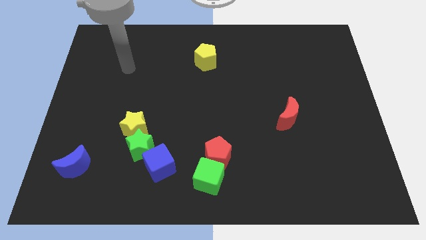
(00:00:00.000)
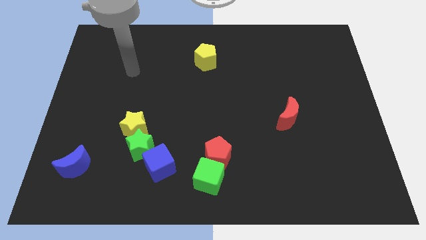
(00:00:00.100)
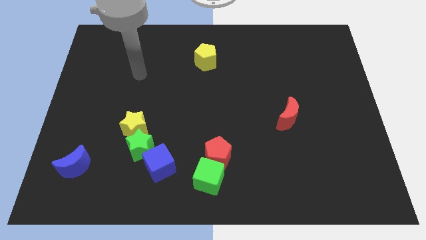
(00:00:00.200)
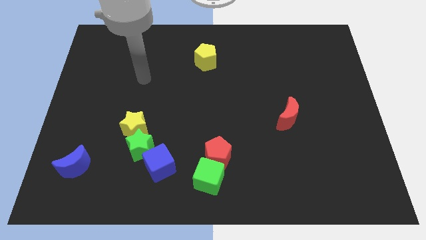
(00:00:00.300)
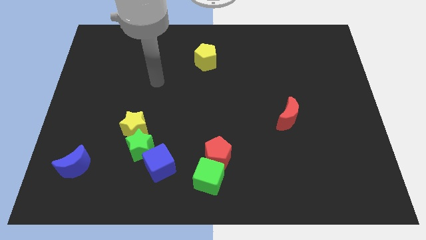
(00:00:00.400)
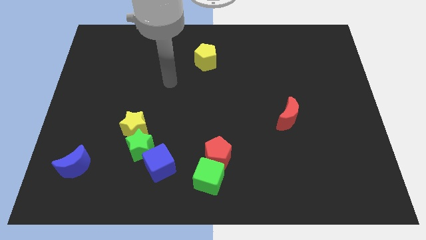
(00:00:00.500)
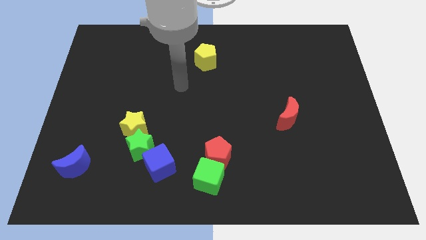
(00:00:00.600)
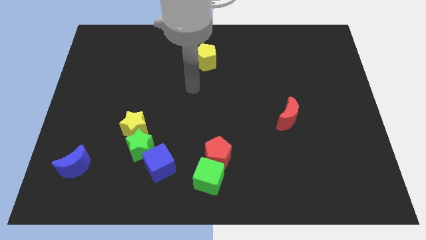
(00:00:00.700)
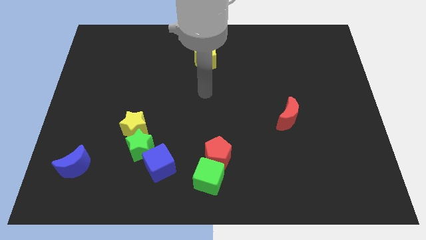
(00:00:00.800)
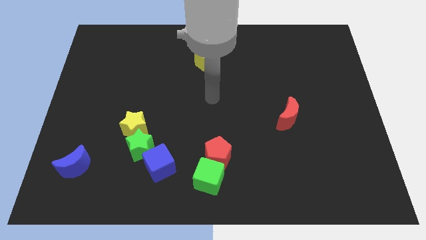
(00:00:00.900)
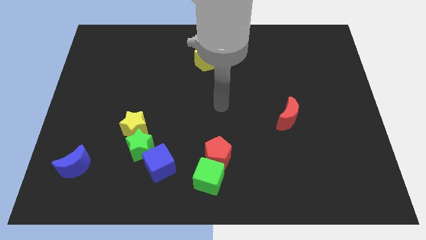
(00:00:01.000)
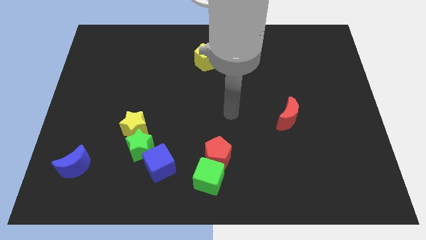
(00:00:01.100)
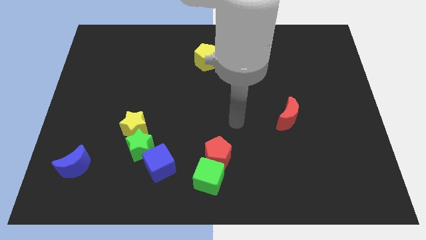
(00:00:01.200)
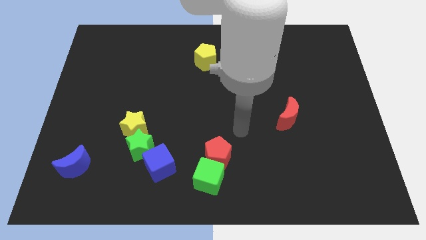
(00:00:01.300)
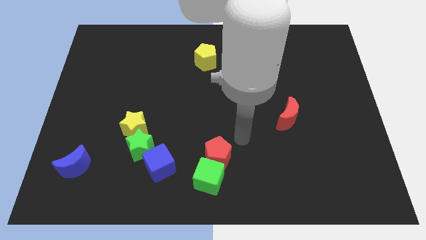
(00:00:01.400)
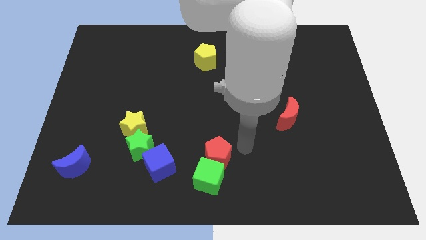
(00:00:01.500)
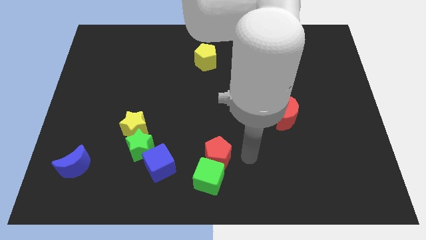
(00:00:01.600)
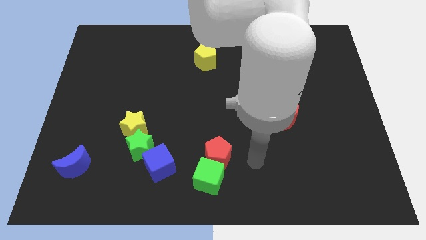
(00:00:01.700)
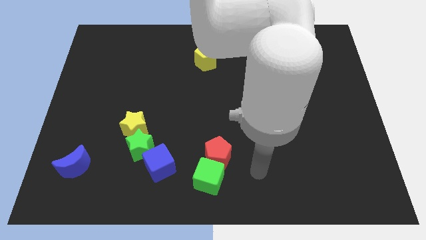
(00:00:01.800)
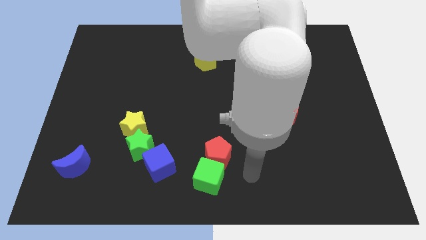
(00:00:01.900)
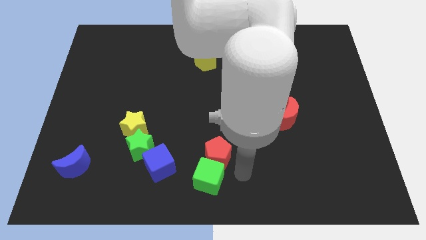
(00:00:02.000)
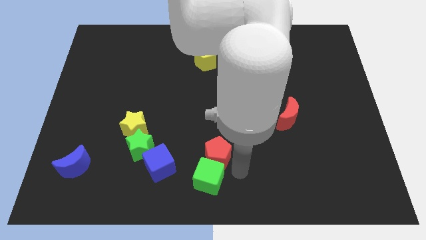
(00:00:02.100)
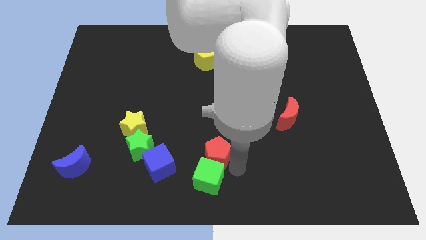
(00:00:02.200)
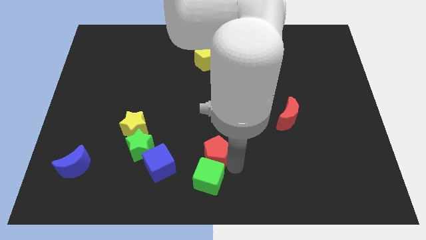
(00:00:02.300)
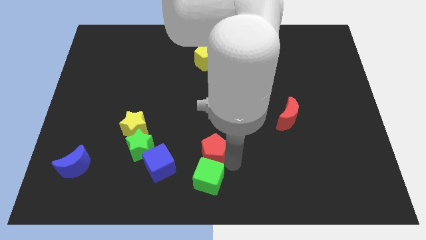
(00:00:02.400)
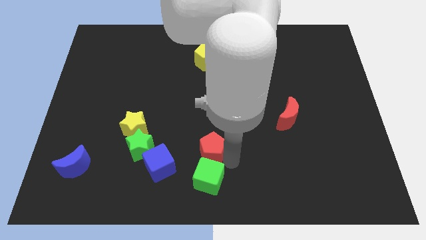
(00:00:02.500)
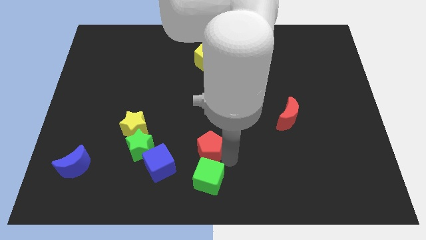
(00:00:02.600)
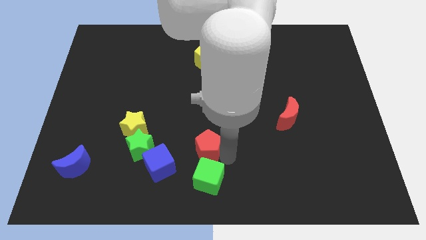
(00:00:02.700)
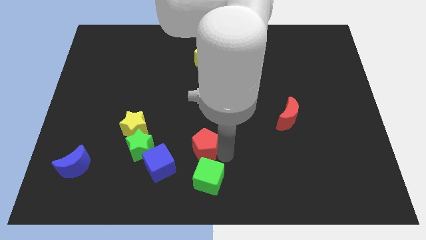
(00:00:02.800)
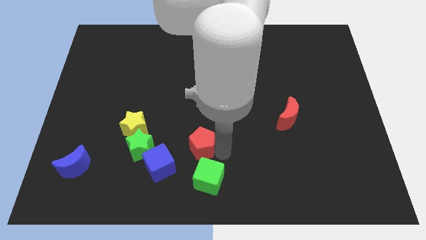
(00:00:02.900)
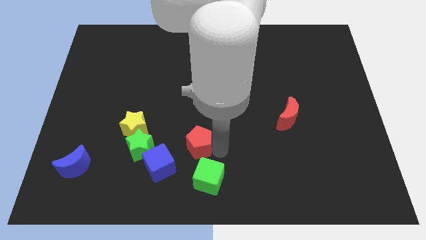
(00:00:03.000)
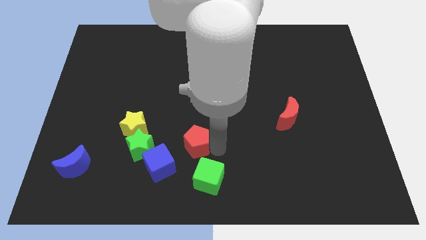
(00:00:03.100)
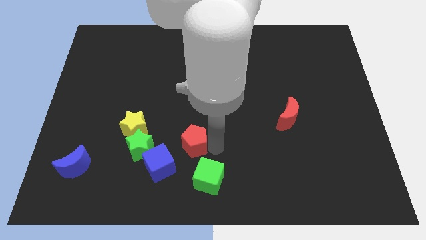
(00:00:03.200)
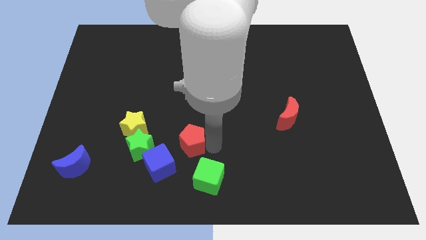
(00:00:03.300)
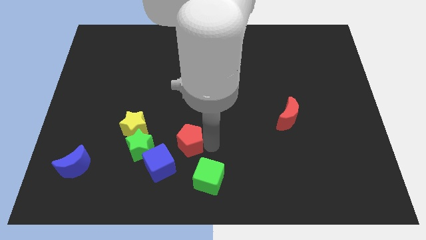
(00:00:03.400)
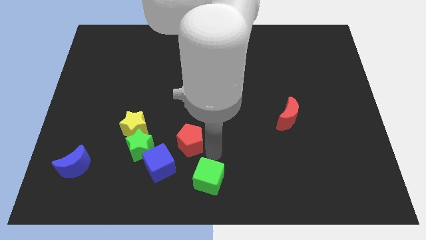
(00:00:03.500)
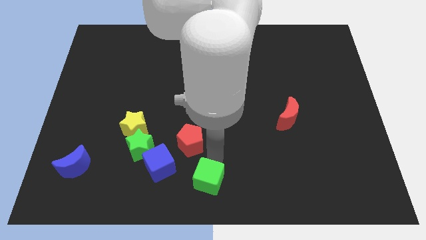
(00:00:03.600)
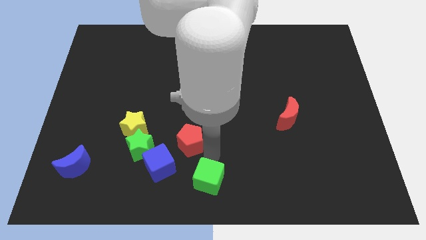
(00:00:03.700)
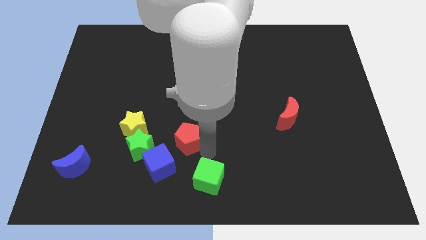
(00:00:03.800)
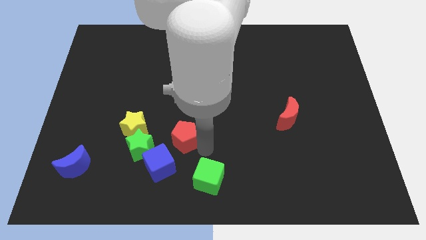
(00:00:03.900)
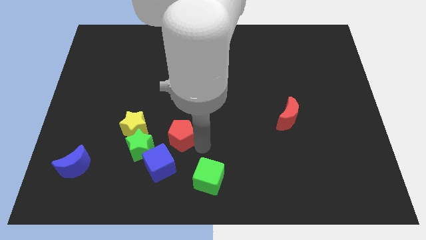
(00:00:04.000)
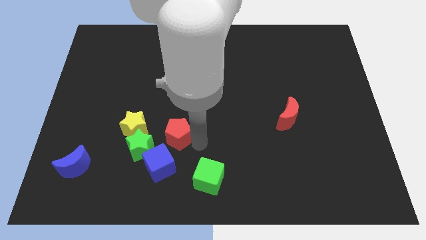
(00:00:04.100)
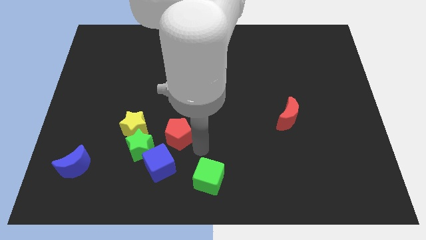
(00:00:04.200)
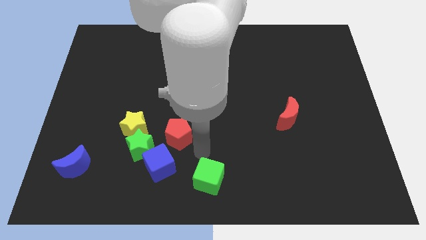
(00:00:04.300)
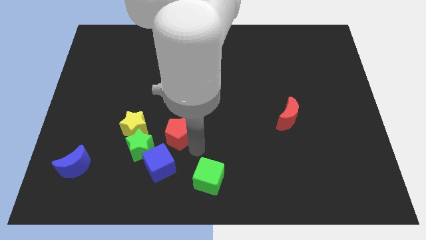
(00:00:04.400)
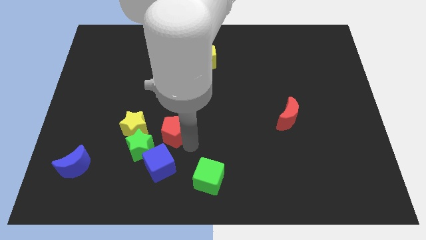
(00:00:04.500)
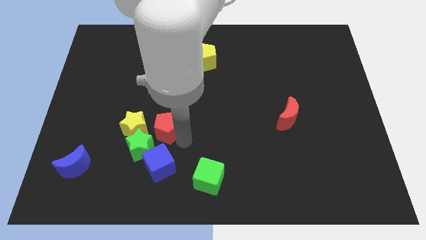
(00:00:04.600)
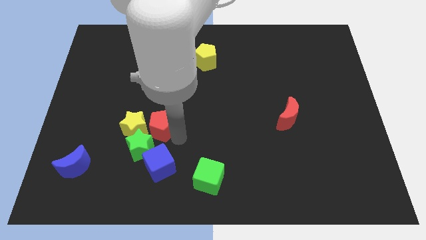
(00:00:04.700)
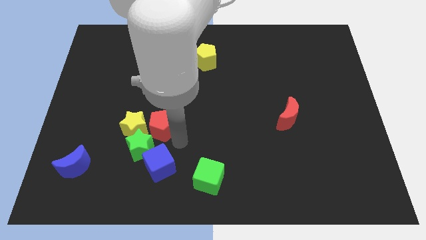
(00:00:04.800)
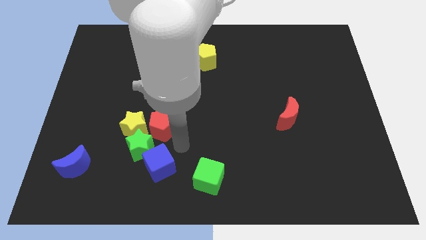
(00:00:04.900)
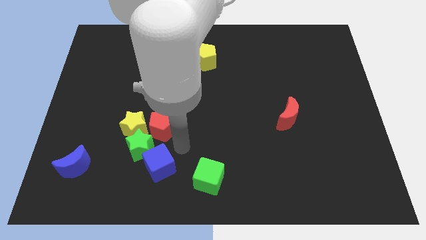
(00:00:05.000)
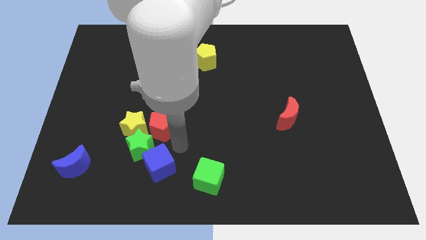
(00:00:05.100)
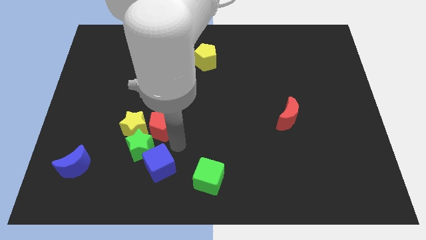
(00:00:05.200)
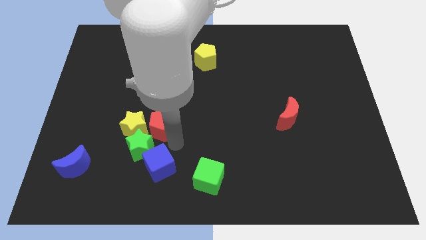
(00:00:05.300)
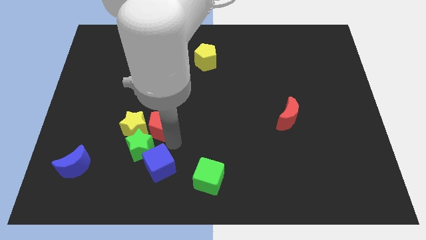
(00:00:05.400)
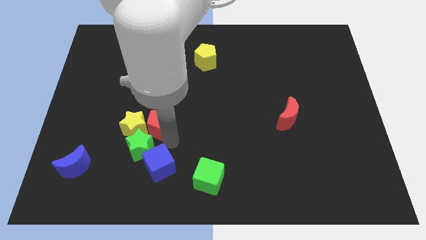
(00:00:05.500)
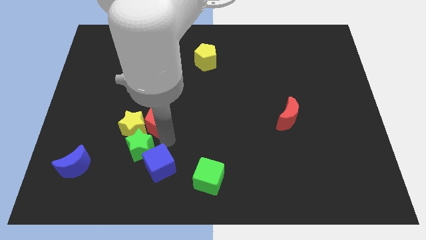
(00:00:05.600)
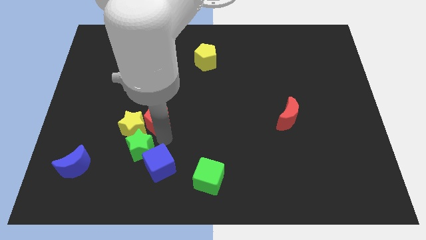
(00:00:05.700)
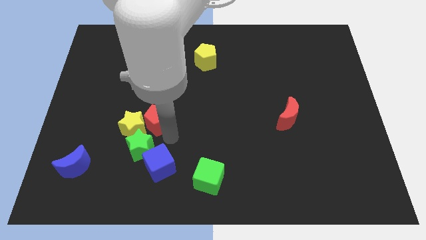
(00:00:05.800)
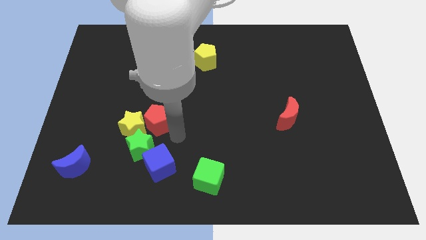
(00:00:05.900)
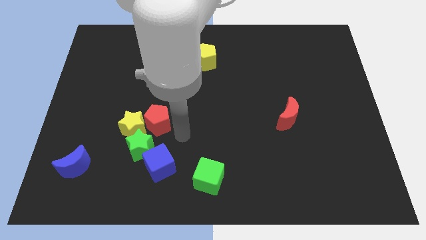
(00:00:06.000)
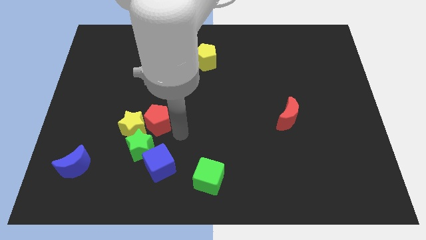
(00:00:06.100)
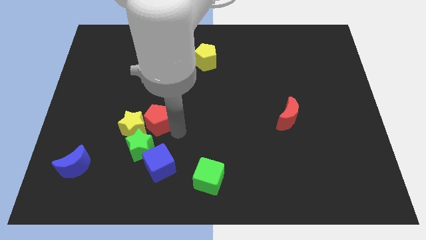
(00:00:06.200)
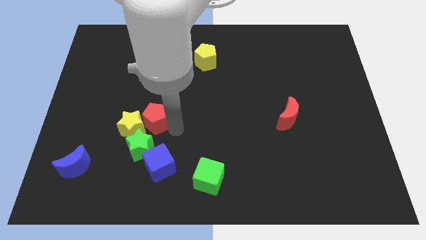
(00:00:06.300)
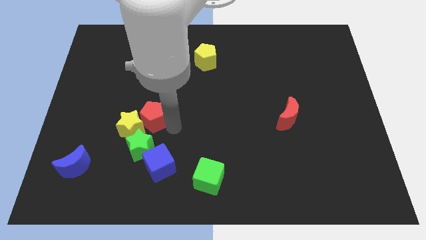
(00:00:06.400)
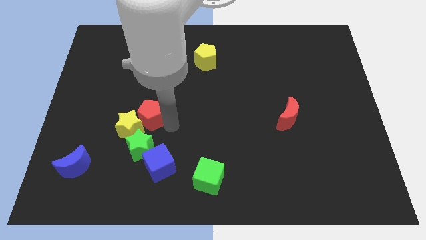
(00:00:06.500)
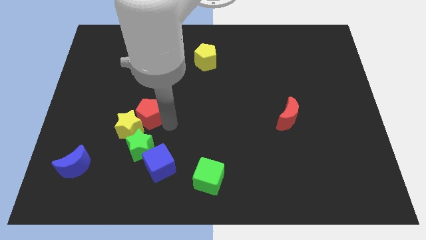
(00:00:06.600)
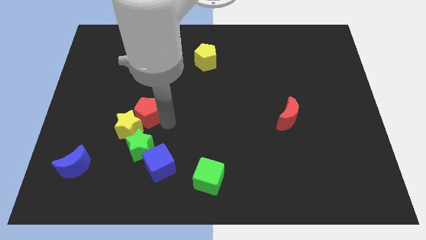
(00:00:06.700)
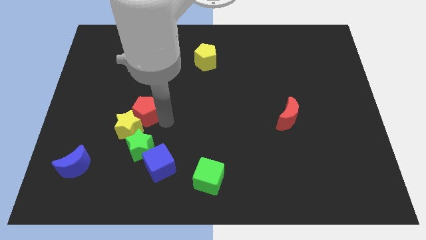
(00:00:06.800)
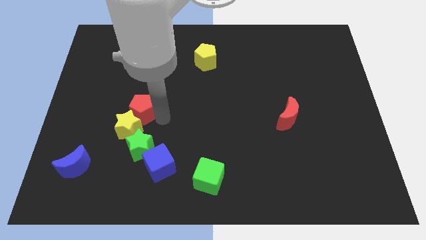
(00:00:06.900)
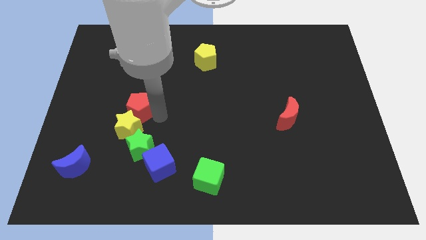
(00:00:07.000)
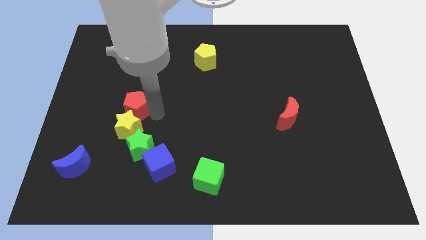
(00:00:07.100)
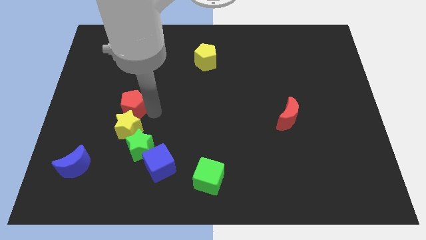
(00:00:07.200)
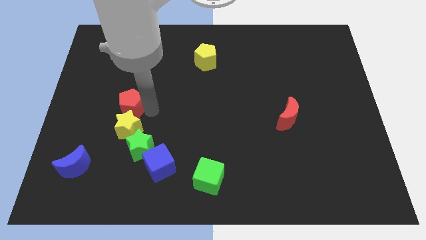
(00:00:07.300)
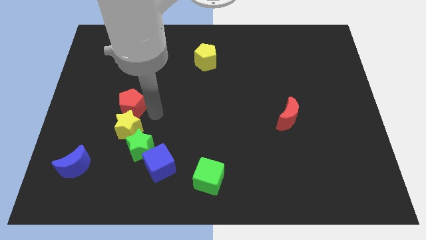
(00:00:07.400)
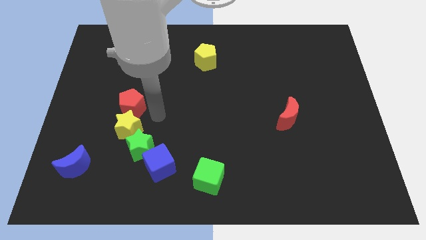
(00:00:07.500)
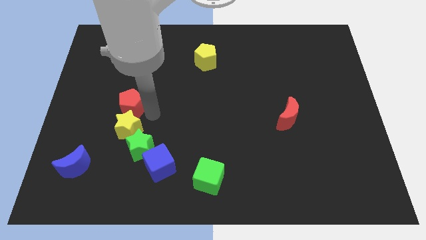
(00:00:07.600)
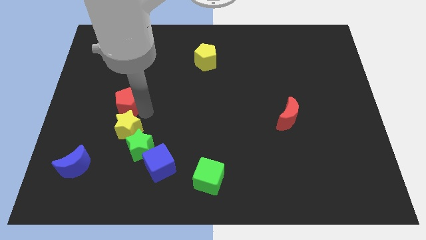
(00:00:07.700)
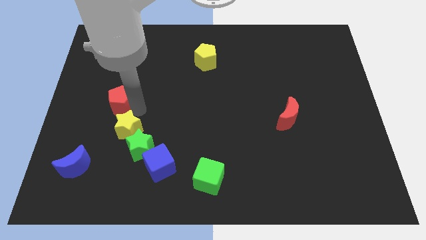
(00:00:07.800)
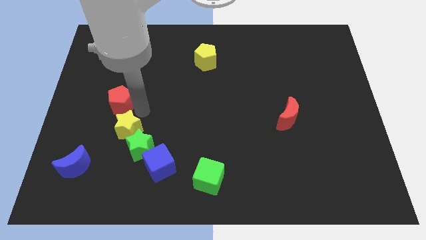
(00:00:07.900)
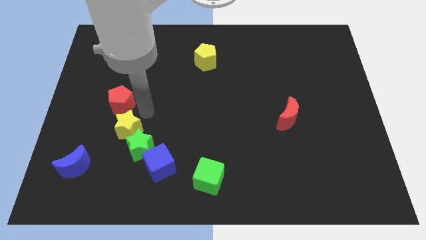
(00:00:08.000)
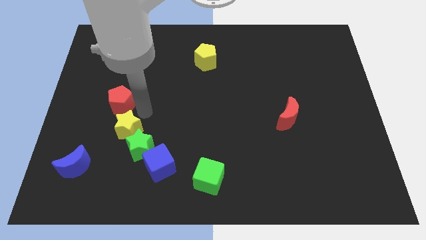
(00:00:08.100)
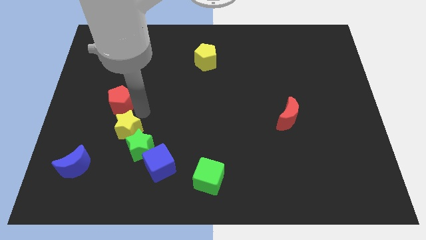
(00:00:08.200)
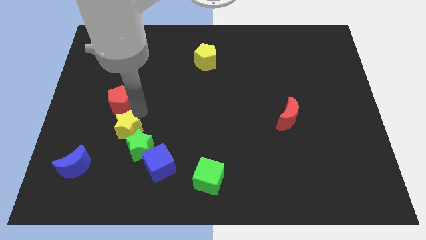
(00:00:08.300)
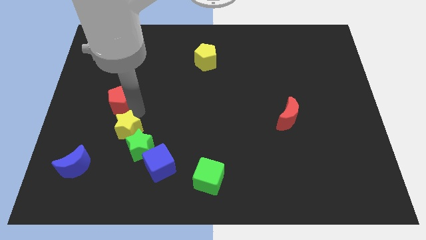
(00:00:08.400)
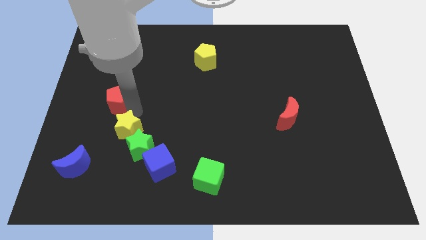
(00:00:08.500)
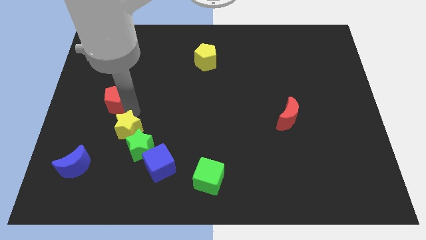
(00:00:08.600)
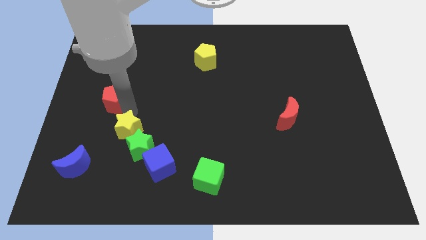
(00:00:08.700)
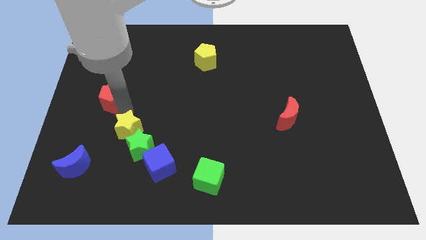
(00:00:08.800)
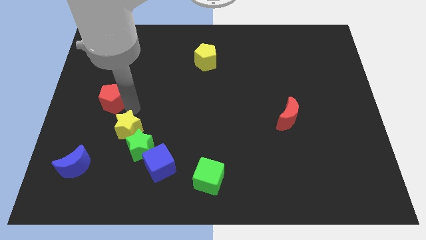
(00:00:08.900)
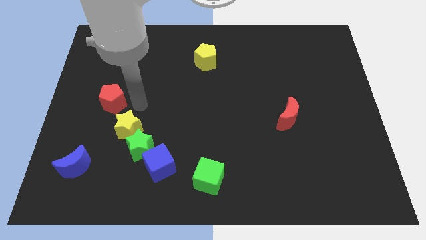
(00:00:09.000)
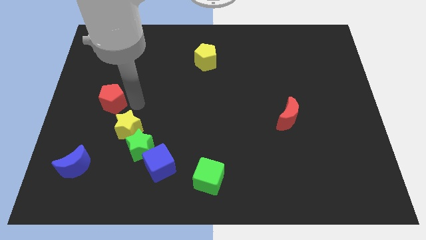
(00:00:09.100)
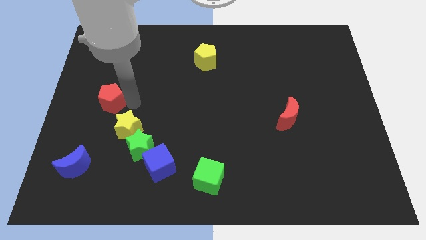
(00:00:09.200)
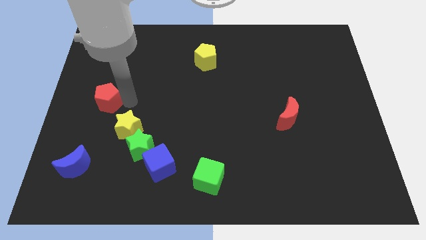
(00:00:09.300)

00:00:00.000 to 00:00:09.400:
put the red pentagon to the center left
